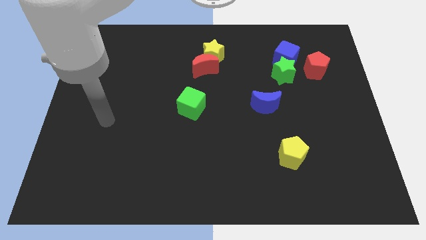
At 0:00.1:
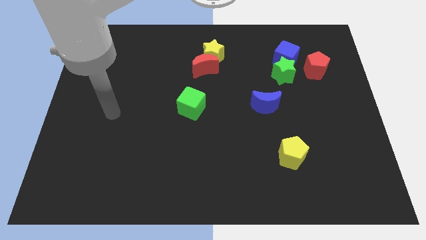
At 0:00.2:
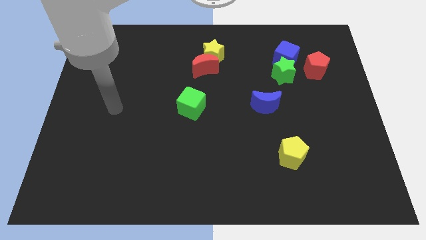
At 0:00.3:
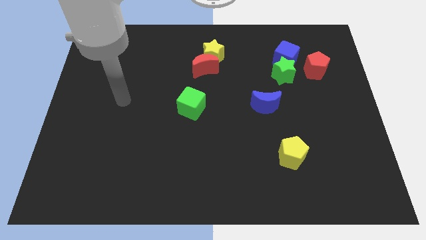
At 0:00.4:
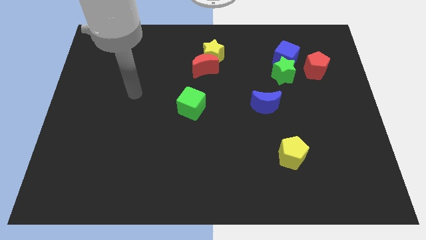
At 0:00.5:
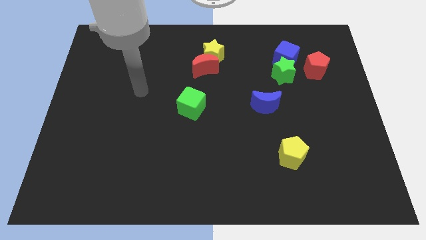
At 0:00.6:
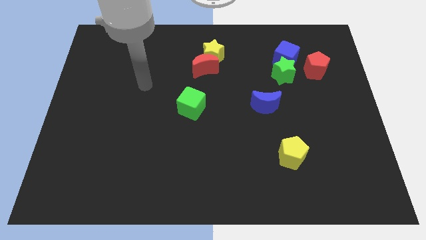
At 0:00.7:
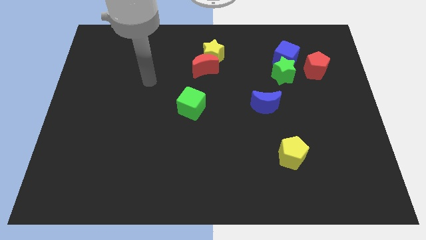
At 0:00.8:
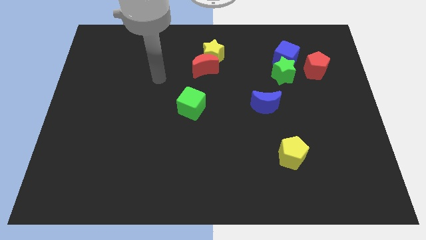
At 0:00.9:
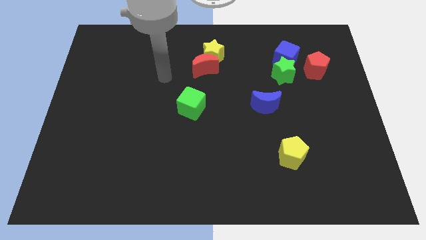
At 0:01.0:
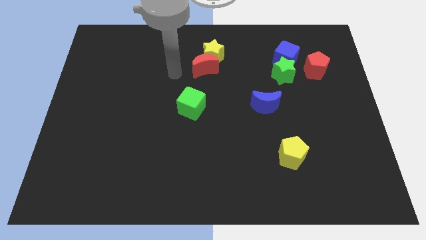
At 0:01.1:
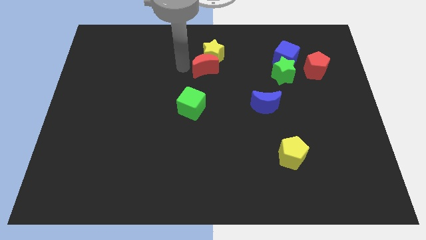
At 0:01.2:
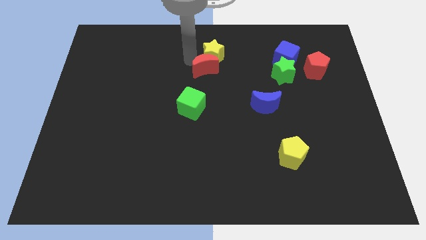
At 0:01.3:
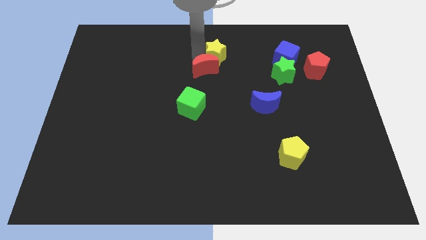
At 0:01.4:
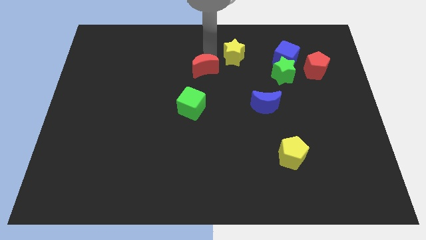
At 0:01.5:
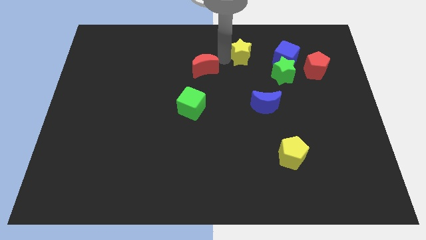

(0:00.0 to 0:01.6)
separate the red moon from the yellow star

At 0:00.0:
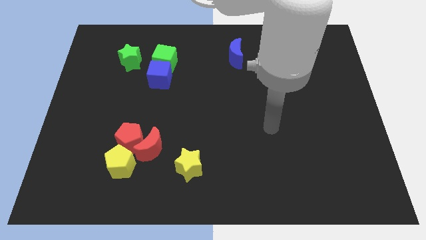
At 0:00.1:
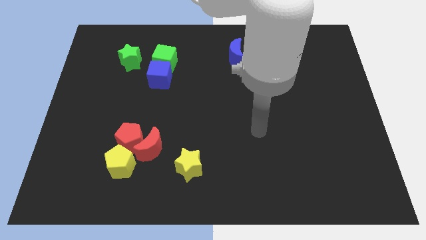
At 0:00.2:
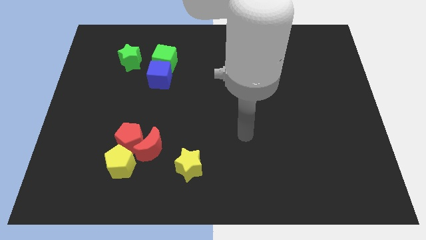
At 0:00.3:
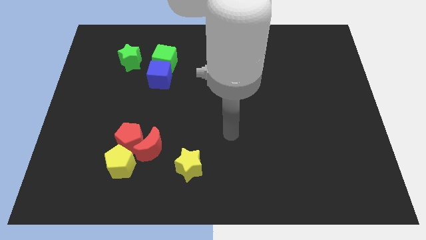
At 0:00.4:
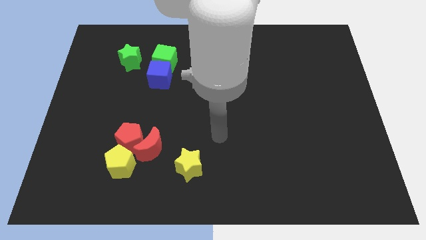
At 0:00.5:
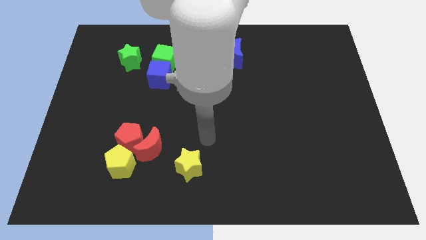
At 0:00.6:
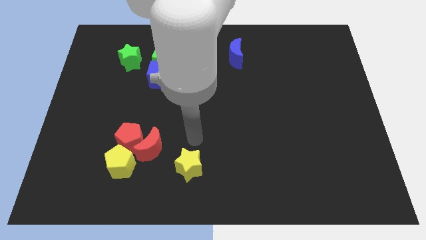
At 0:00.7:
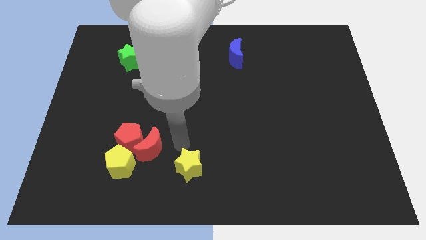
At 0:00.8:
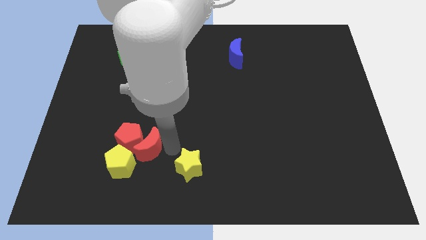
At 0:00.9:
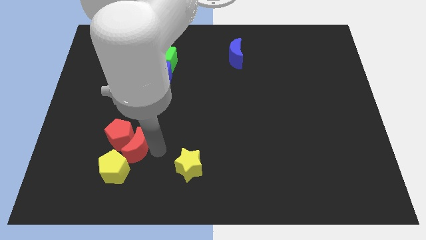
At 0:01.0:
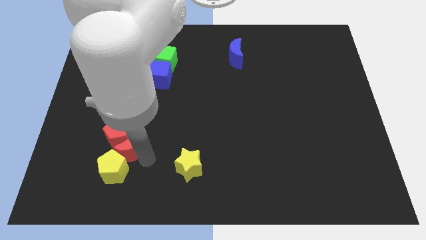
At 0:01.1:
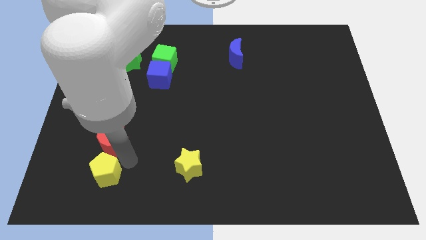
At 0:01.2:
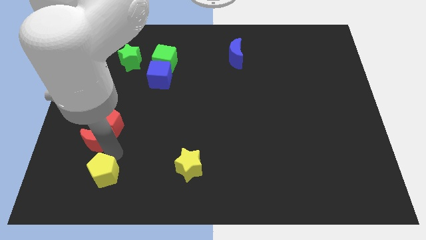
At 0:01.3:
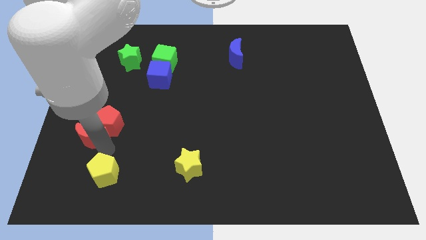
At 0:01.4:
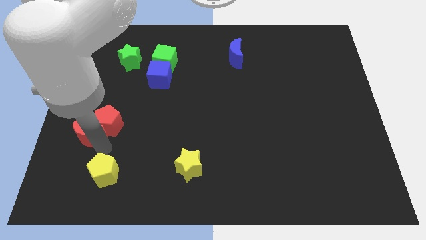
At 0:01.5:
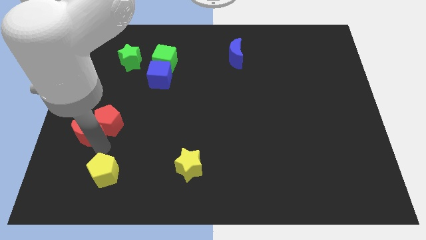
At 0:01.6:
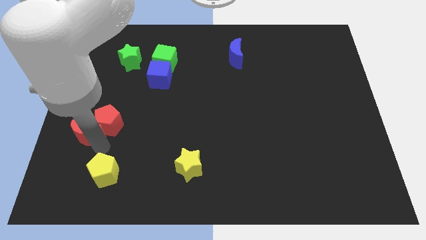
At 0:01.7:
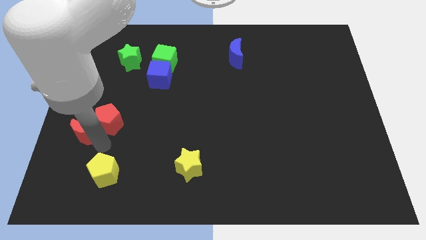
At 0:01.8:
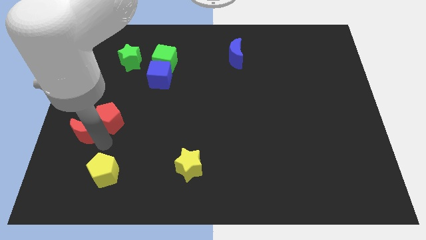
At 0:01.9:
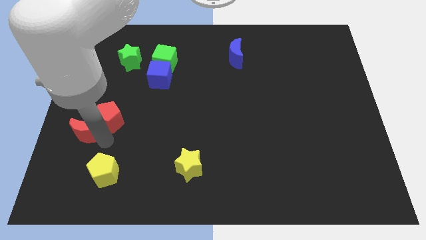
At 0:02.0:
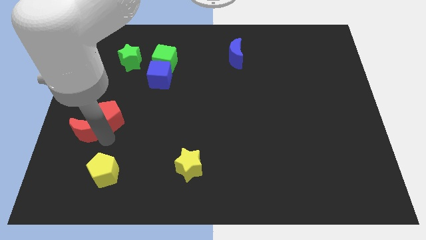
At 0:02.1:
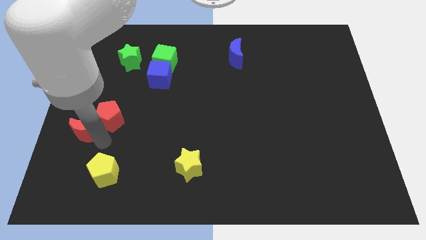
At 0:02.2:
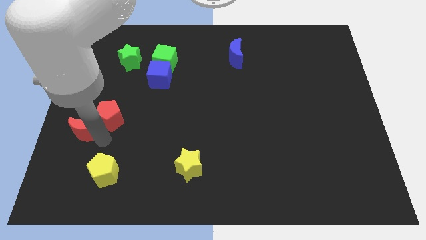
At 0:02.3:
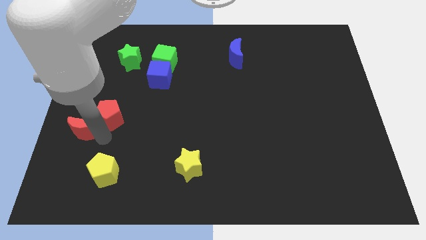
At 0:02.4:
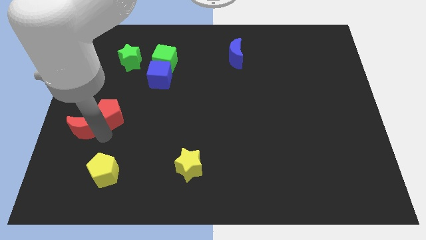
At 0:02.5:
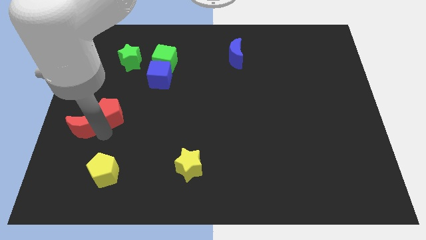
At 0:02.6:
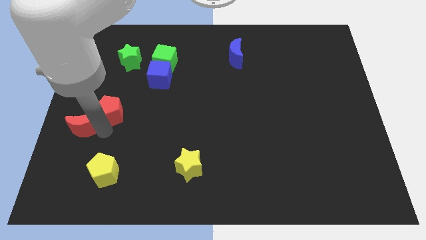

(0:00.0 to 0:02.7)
pull the red pentagon apart from the red moon and yellow pentagon

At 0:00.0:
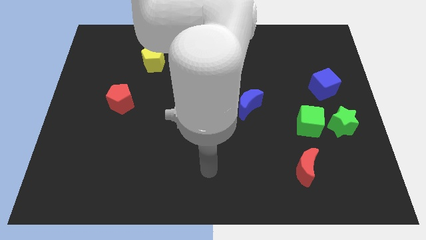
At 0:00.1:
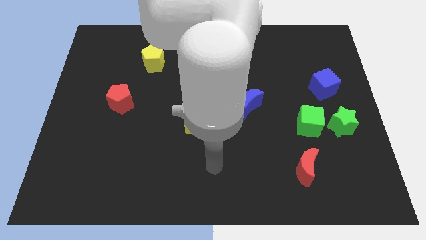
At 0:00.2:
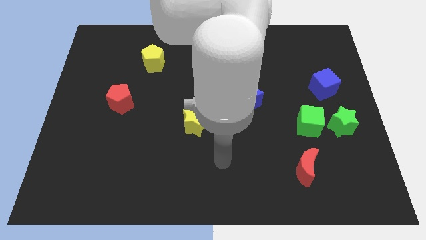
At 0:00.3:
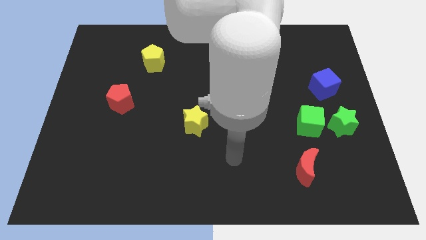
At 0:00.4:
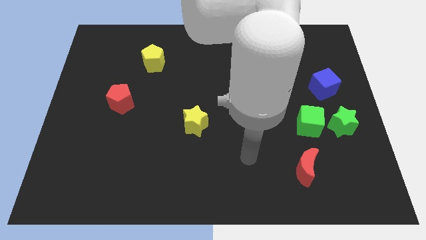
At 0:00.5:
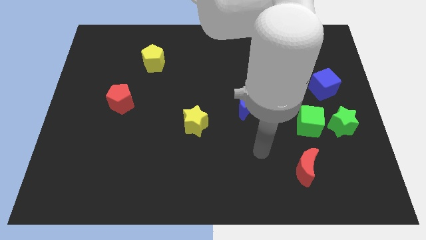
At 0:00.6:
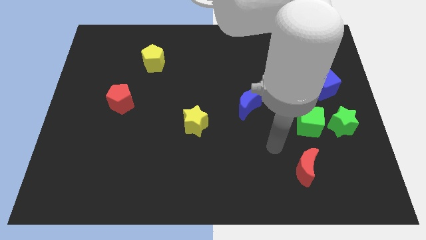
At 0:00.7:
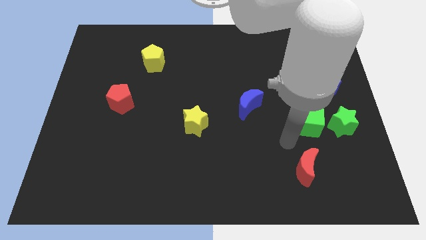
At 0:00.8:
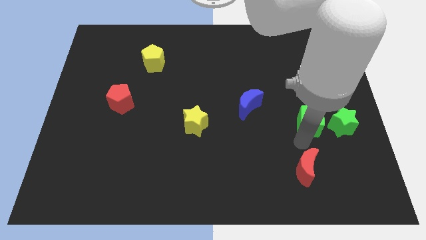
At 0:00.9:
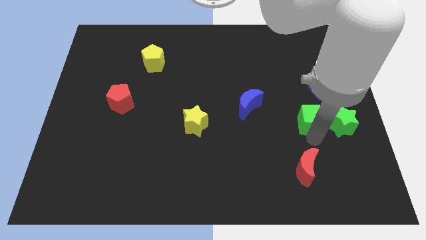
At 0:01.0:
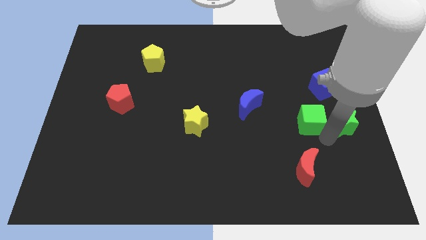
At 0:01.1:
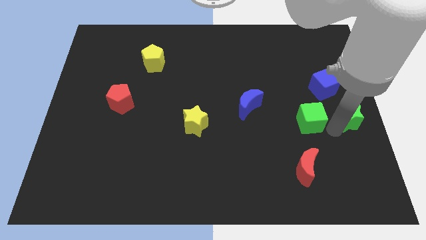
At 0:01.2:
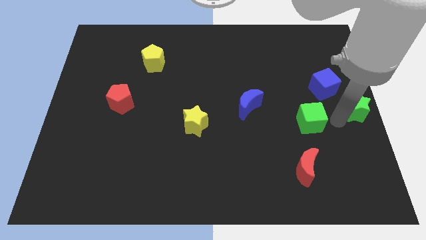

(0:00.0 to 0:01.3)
pull the green cube apart from the green star

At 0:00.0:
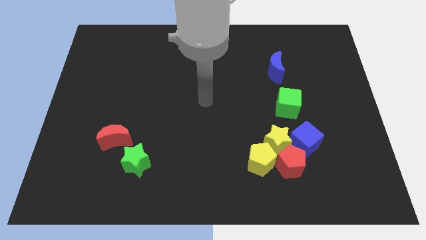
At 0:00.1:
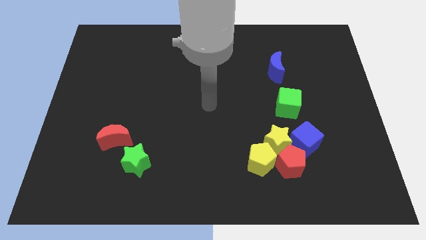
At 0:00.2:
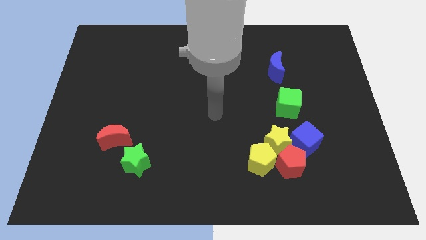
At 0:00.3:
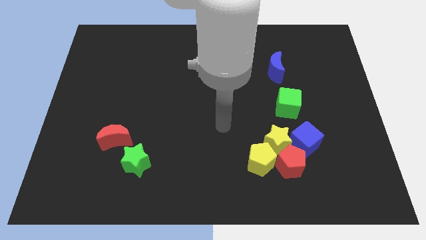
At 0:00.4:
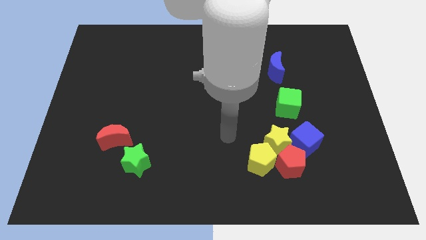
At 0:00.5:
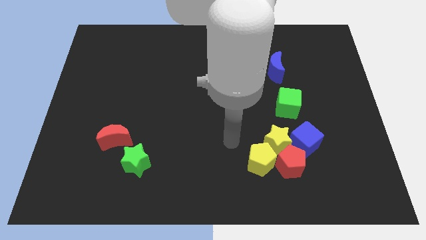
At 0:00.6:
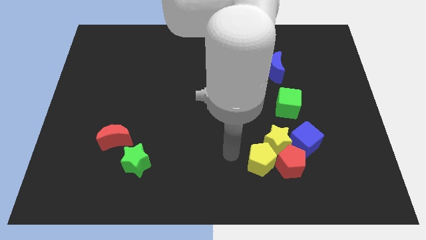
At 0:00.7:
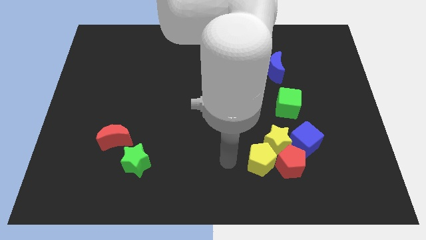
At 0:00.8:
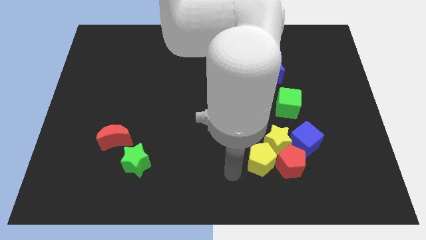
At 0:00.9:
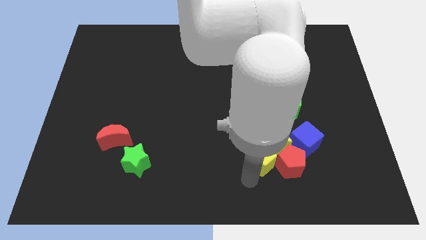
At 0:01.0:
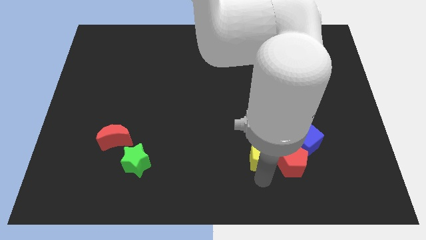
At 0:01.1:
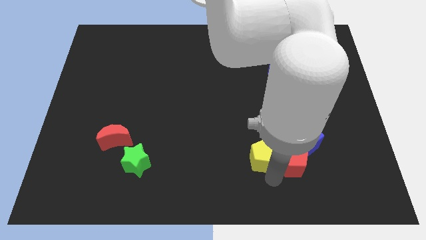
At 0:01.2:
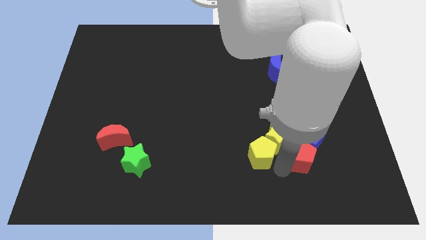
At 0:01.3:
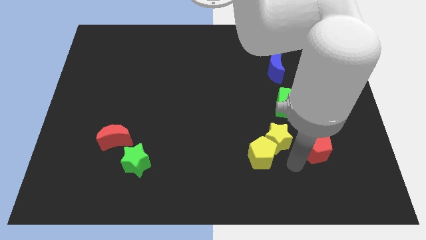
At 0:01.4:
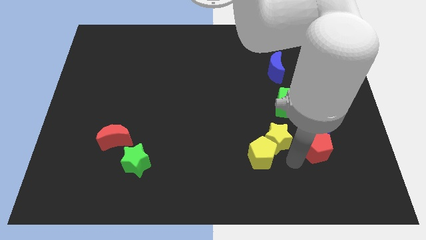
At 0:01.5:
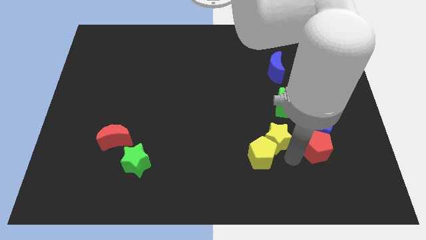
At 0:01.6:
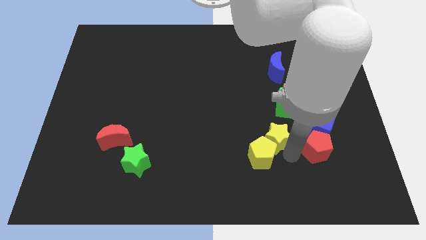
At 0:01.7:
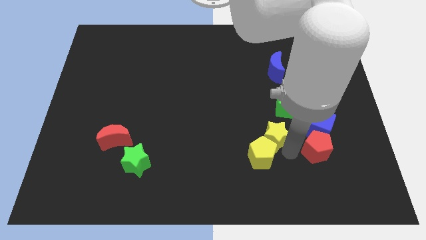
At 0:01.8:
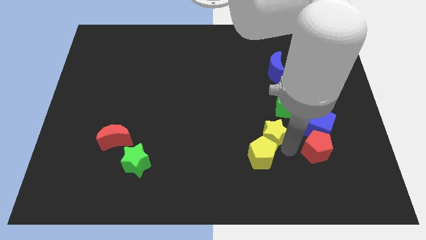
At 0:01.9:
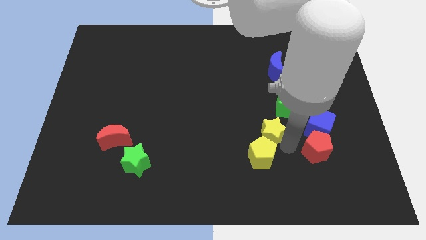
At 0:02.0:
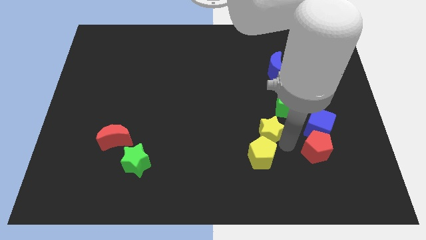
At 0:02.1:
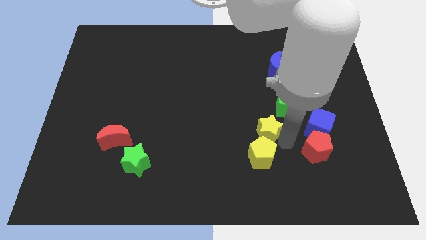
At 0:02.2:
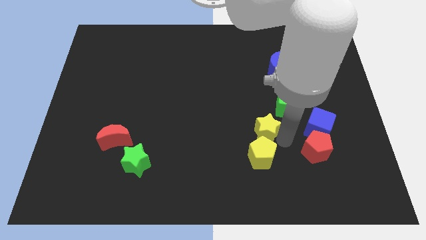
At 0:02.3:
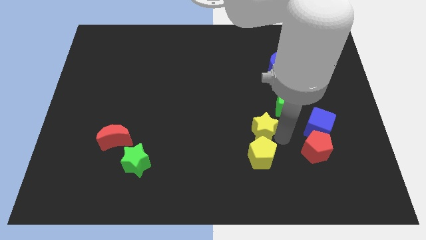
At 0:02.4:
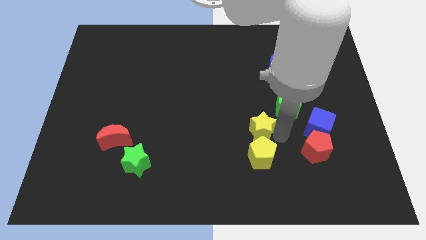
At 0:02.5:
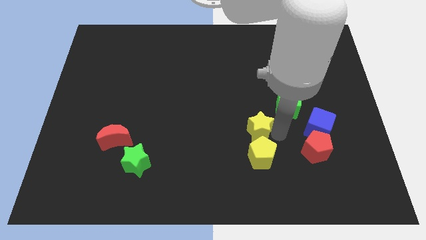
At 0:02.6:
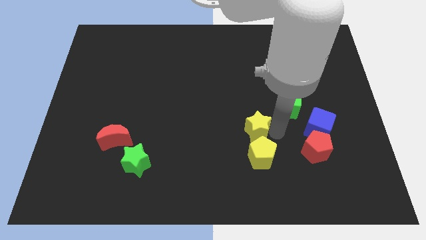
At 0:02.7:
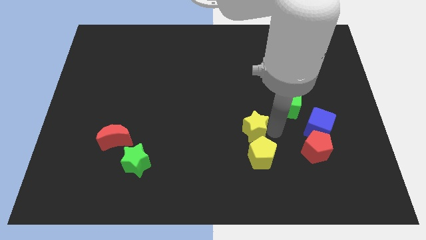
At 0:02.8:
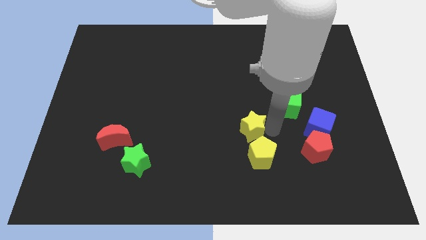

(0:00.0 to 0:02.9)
move the yellow star away from the red pentagon, yellow pentagon, and blue cube

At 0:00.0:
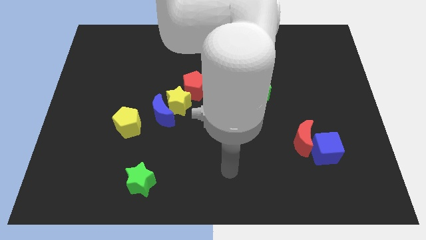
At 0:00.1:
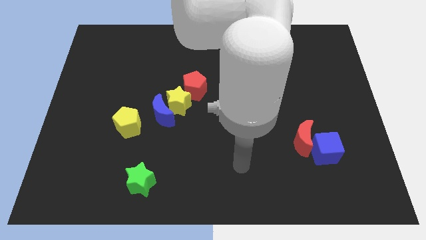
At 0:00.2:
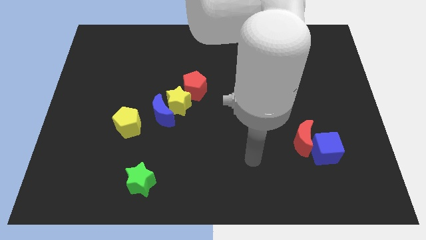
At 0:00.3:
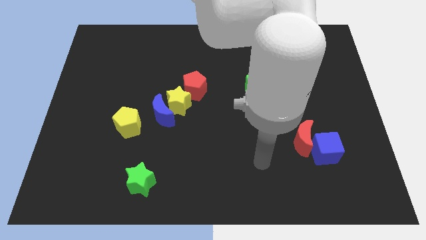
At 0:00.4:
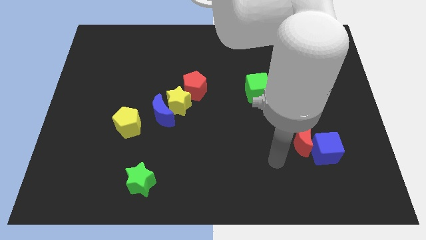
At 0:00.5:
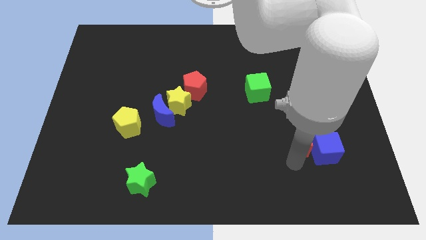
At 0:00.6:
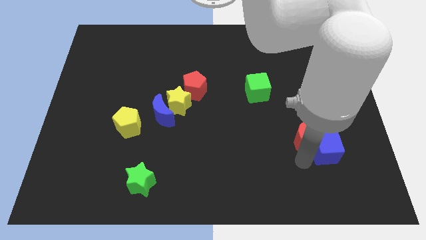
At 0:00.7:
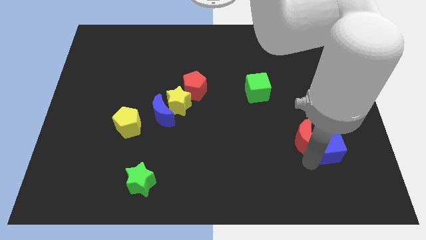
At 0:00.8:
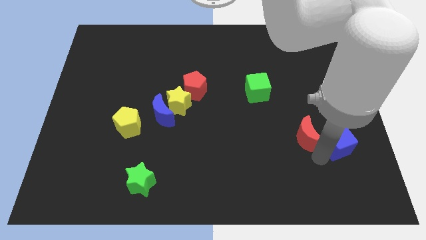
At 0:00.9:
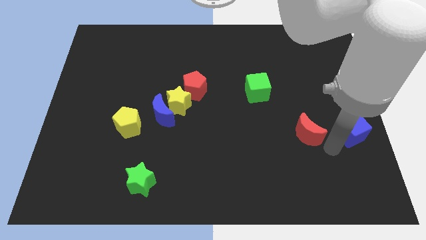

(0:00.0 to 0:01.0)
separate the red moon from the blue cube
